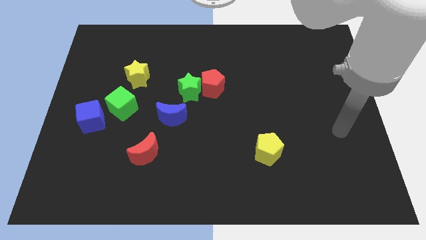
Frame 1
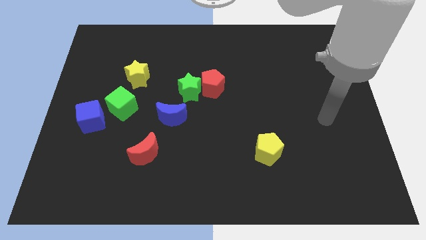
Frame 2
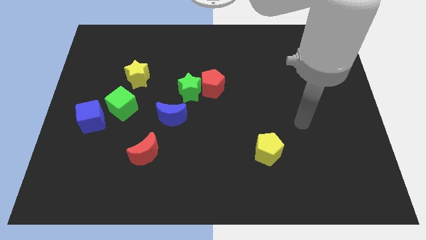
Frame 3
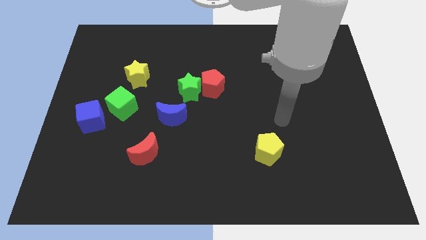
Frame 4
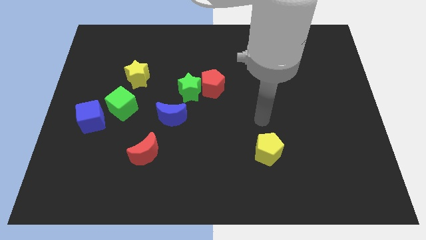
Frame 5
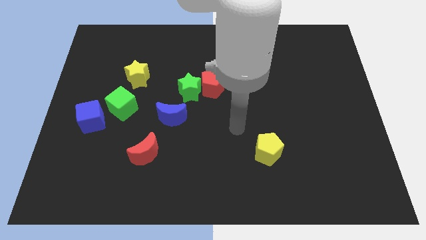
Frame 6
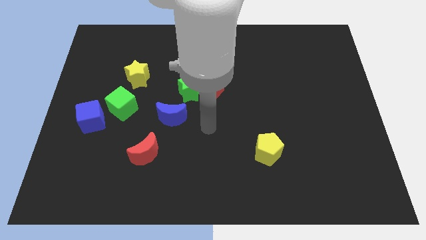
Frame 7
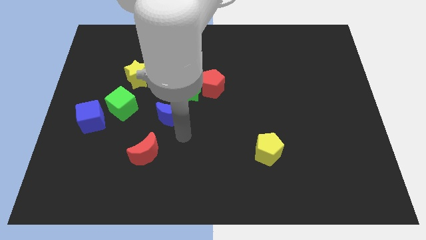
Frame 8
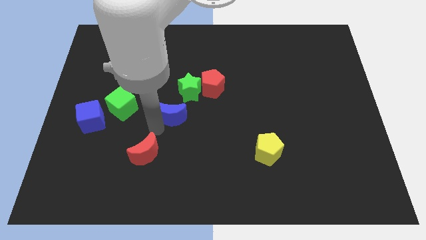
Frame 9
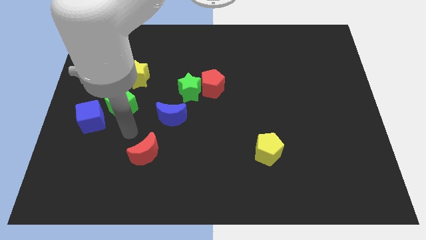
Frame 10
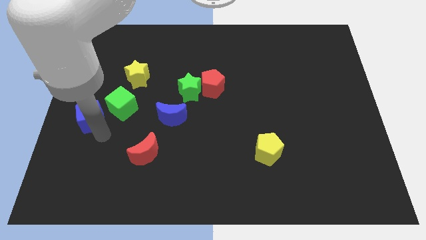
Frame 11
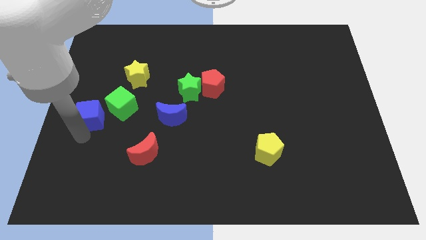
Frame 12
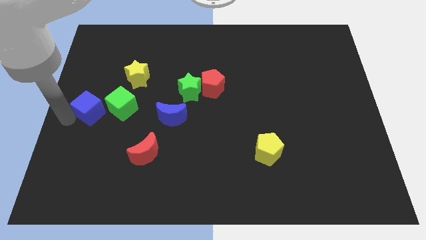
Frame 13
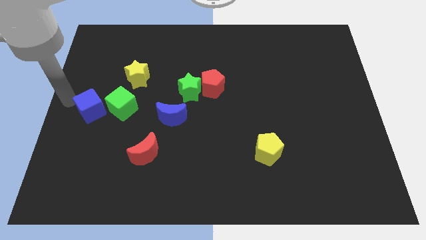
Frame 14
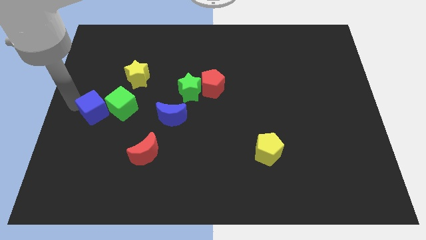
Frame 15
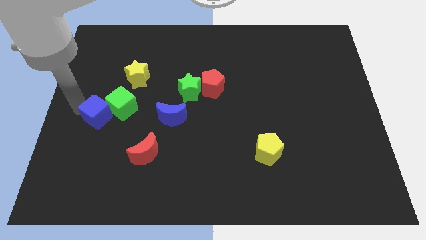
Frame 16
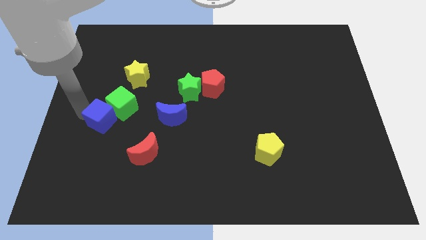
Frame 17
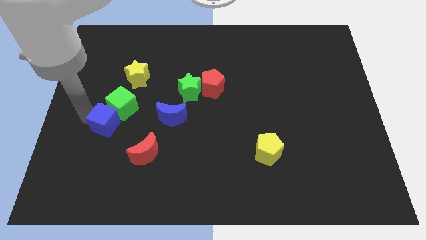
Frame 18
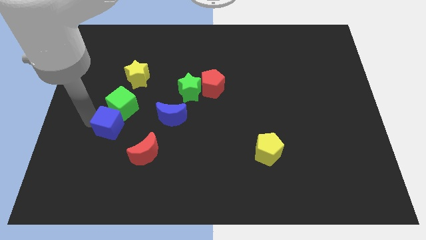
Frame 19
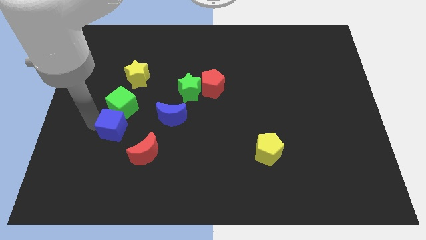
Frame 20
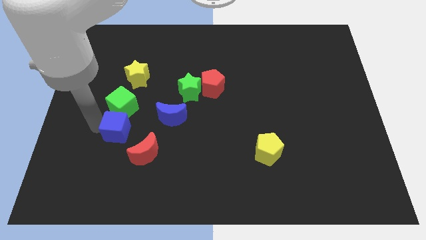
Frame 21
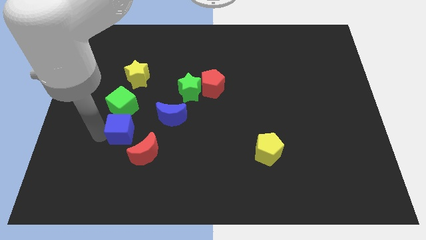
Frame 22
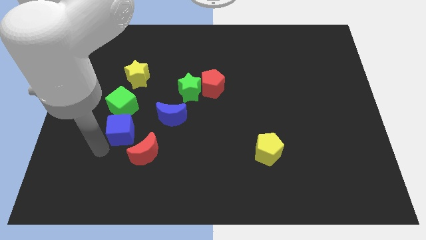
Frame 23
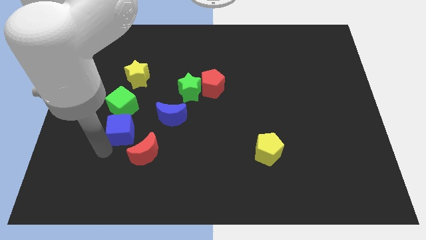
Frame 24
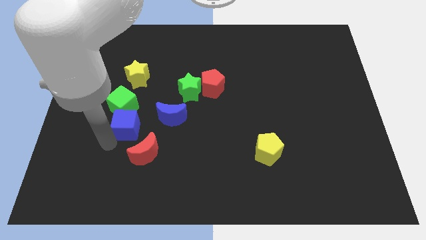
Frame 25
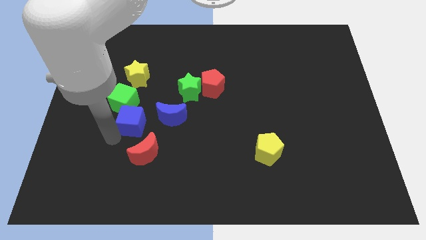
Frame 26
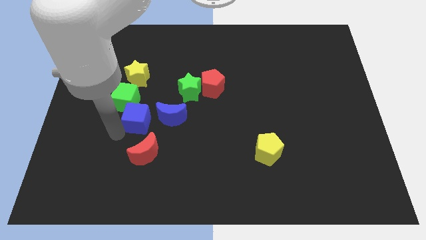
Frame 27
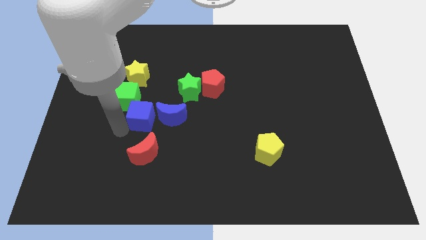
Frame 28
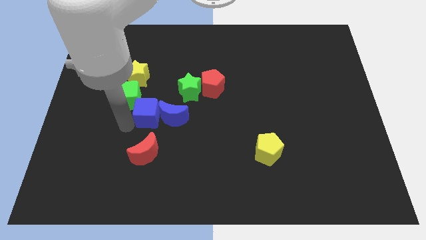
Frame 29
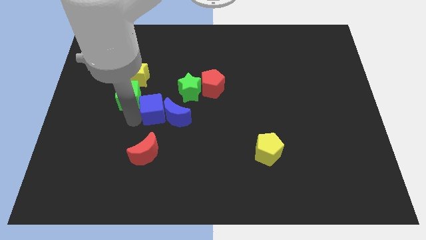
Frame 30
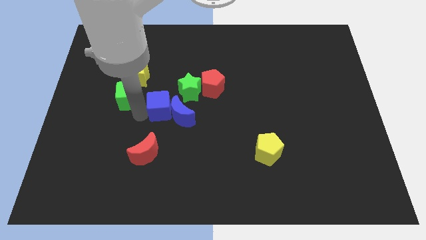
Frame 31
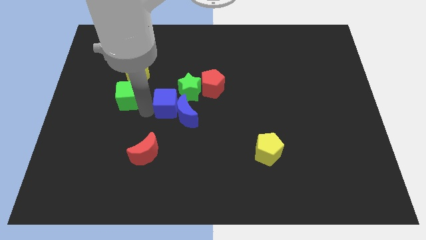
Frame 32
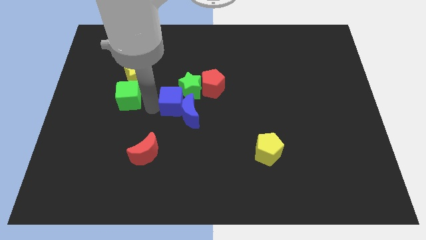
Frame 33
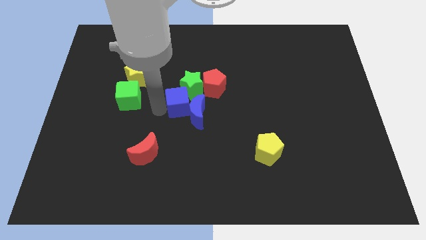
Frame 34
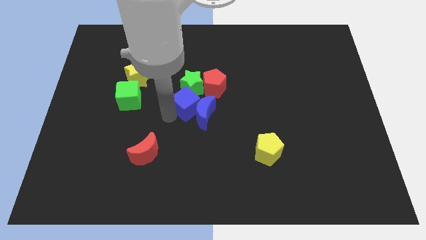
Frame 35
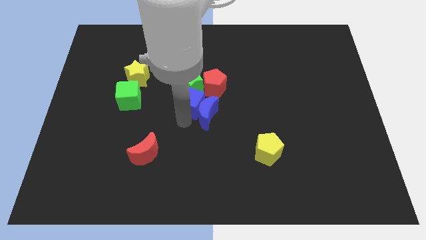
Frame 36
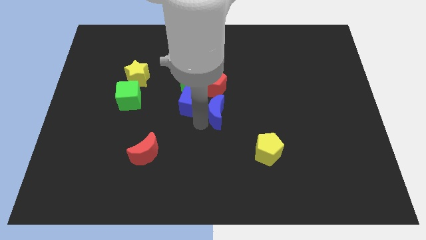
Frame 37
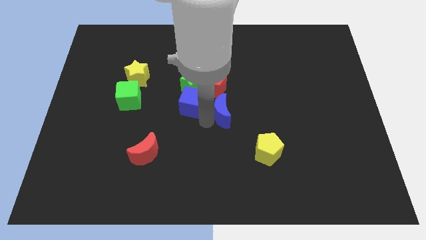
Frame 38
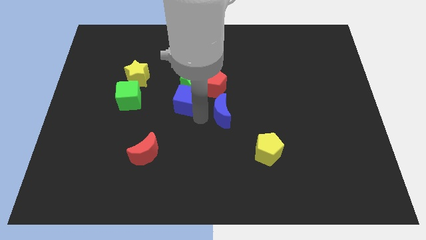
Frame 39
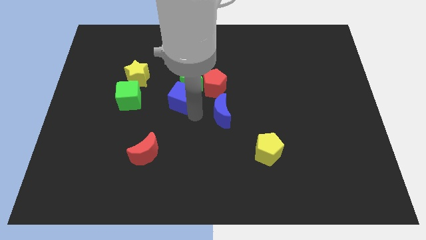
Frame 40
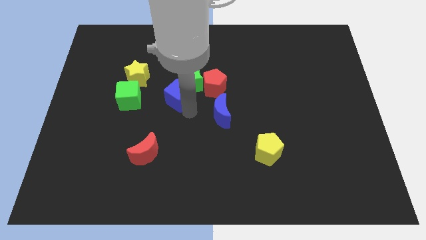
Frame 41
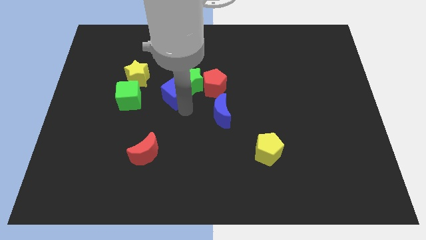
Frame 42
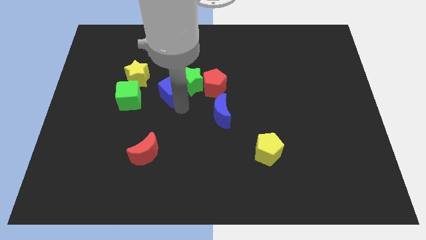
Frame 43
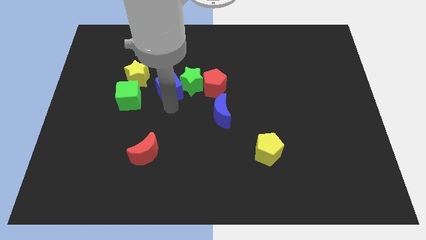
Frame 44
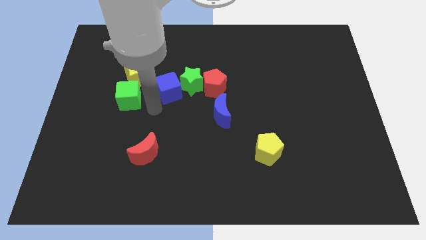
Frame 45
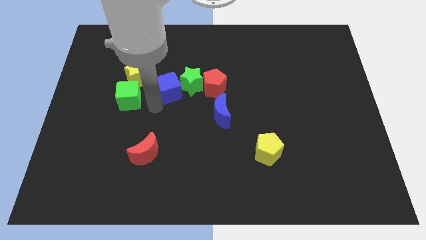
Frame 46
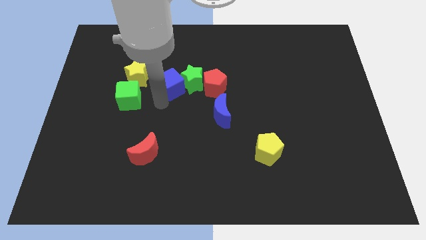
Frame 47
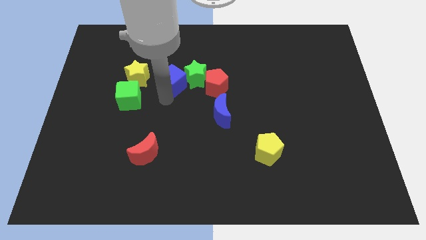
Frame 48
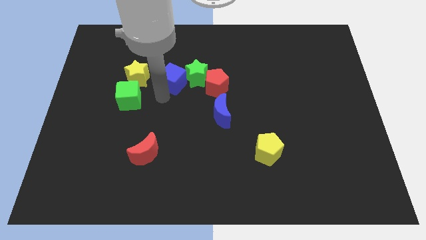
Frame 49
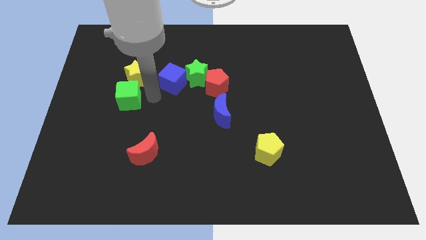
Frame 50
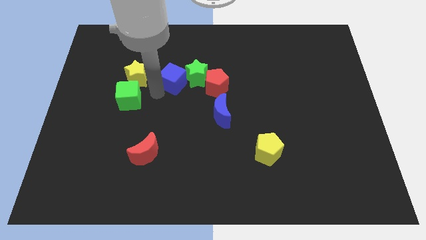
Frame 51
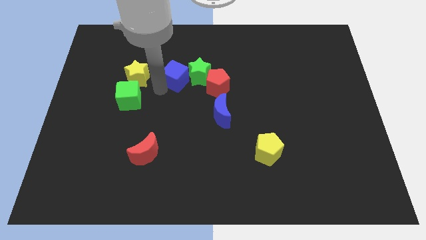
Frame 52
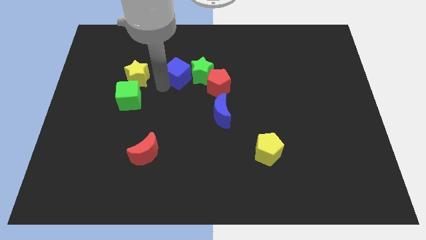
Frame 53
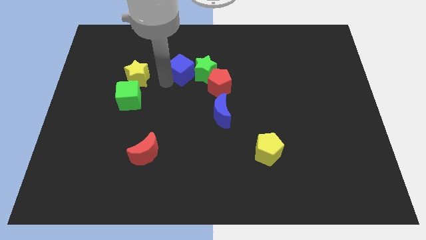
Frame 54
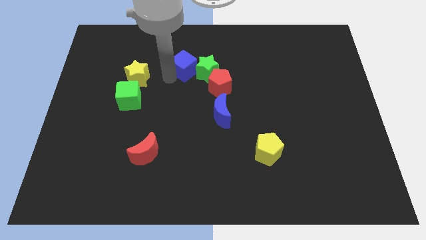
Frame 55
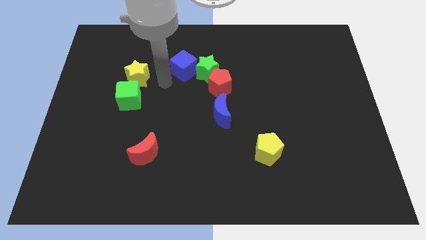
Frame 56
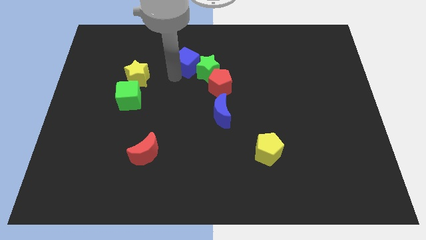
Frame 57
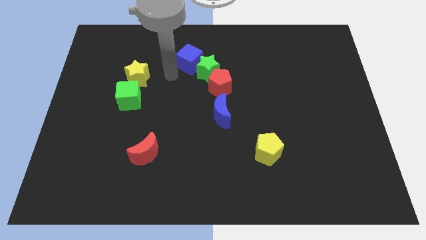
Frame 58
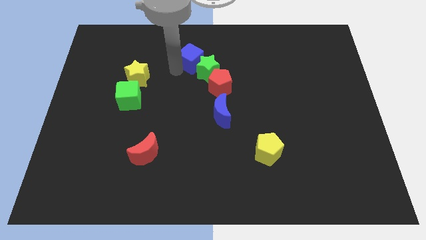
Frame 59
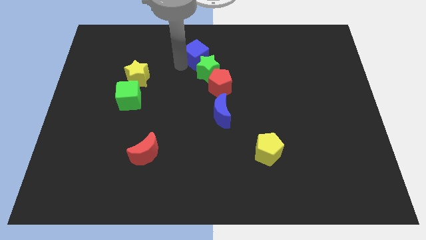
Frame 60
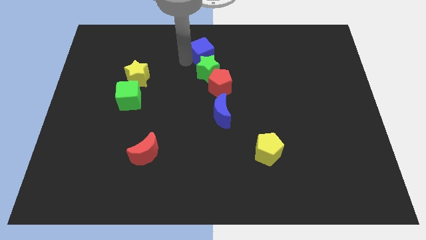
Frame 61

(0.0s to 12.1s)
slide the blue cube to the top side

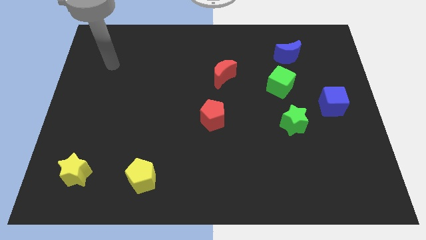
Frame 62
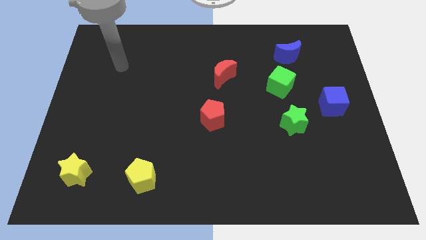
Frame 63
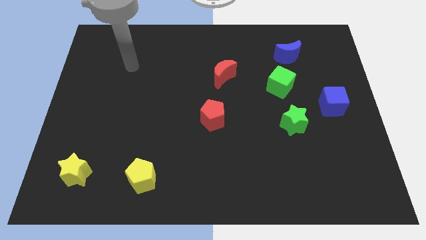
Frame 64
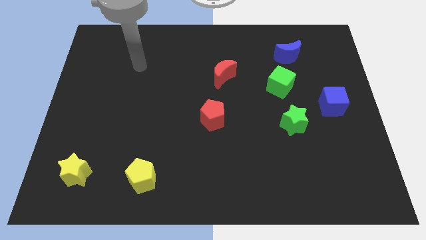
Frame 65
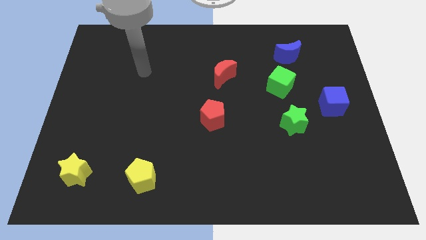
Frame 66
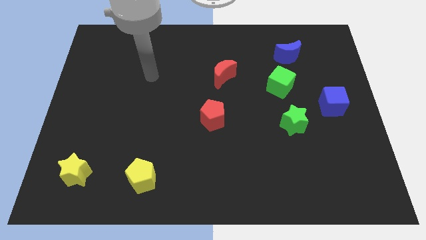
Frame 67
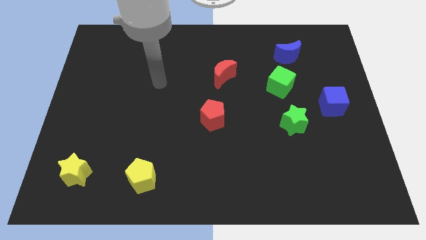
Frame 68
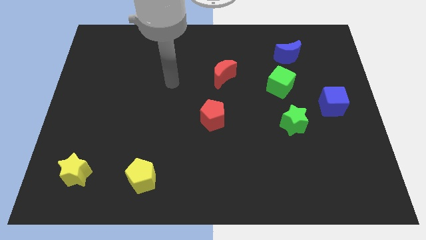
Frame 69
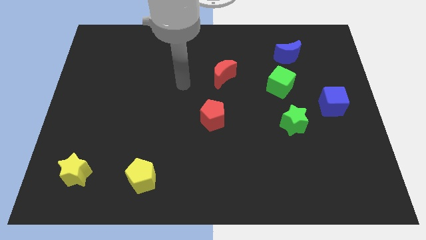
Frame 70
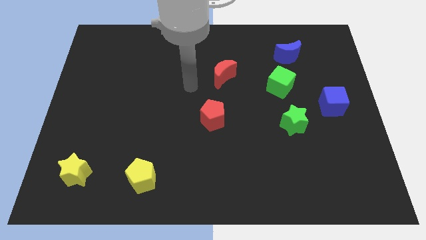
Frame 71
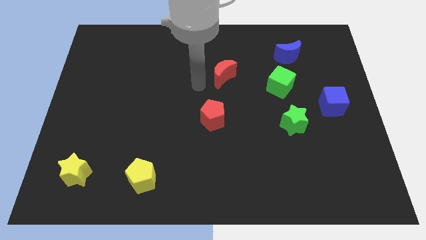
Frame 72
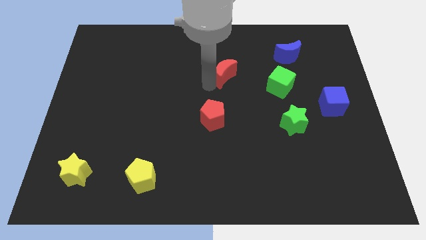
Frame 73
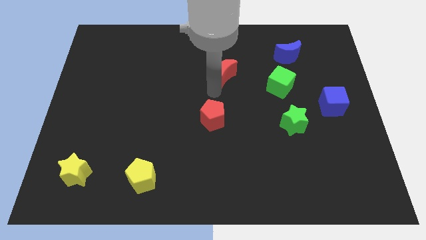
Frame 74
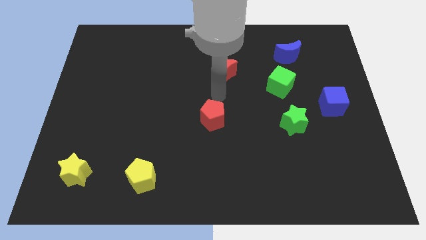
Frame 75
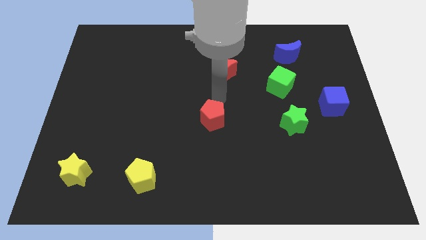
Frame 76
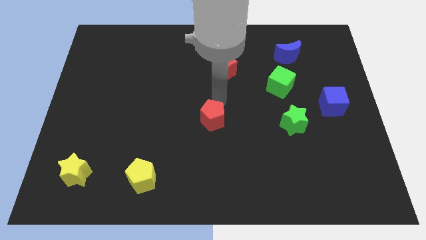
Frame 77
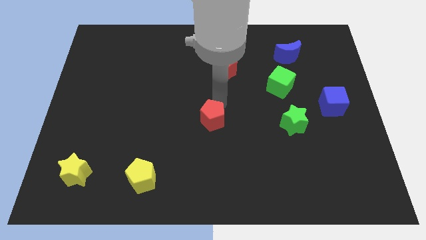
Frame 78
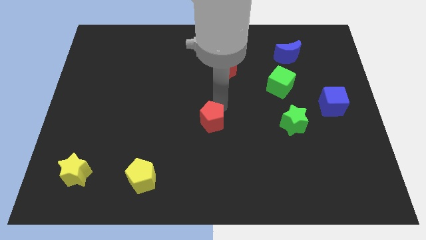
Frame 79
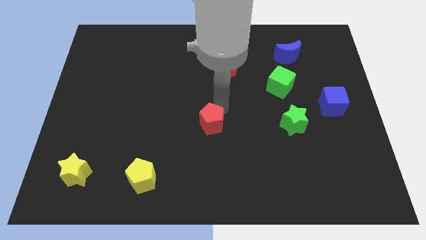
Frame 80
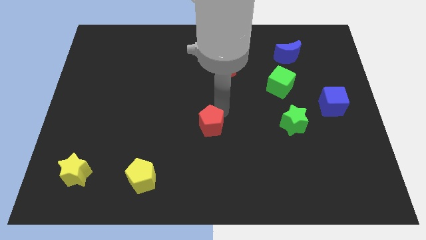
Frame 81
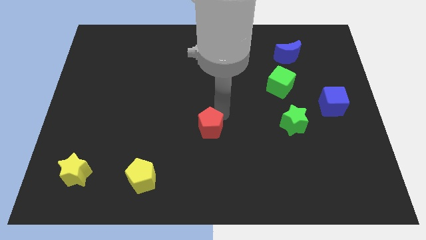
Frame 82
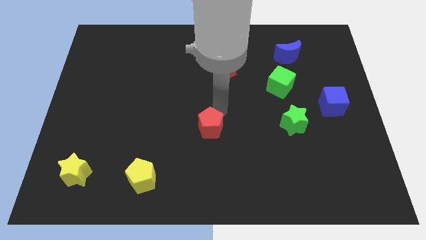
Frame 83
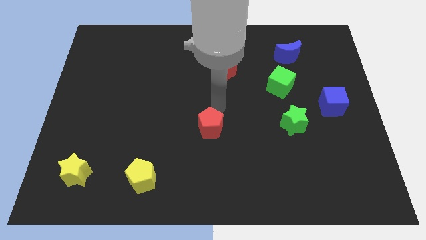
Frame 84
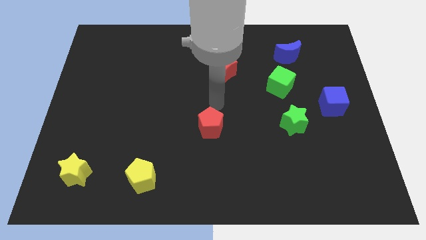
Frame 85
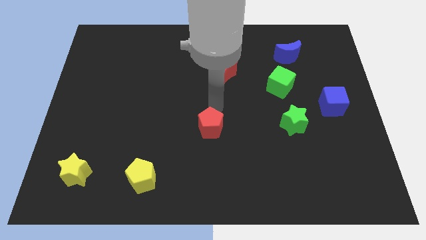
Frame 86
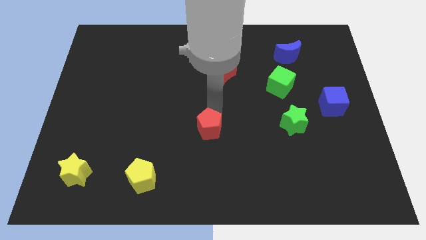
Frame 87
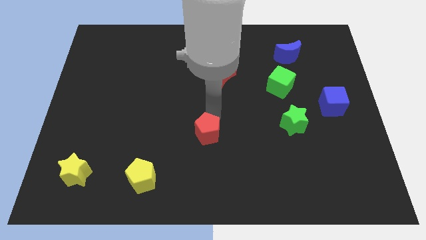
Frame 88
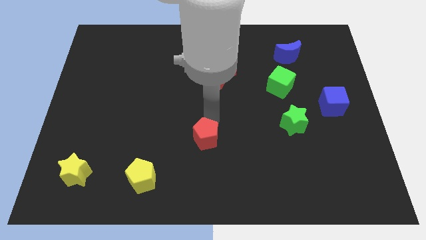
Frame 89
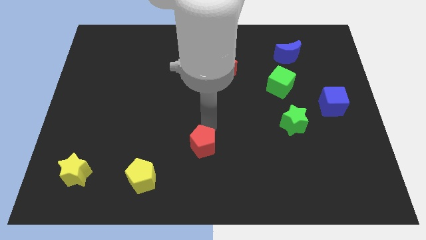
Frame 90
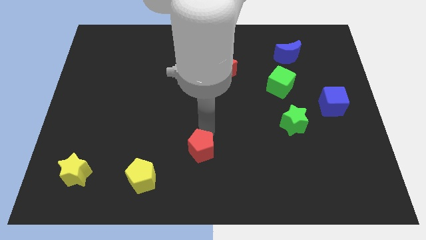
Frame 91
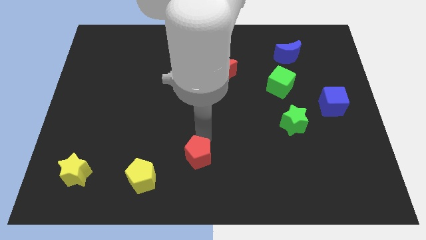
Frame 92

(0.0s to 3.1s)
put the red pentagon to the bottom
